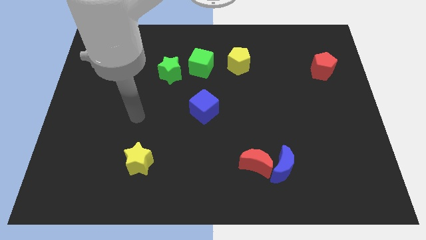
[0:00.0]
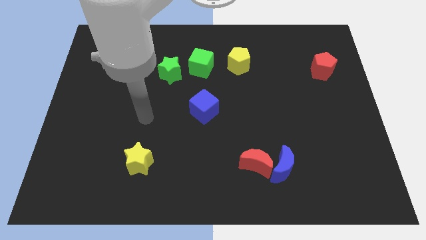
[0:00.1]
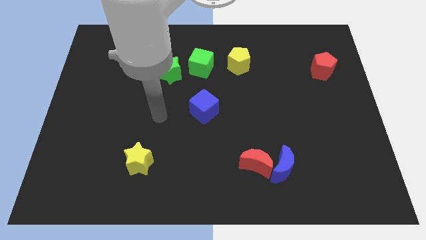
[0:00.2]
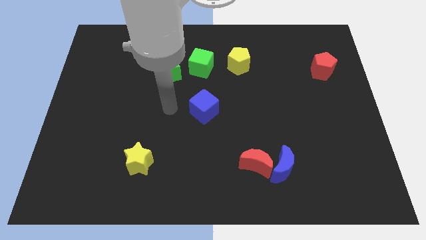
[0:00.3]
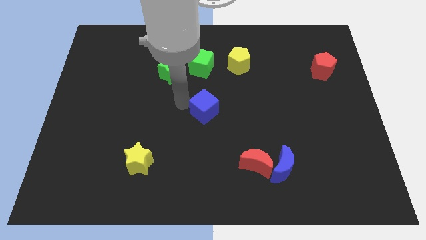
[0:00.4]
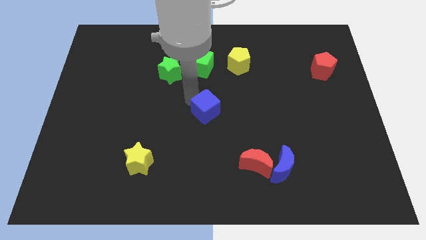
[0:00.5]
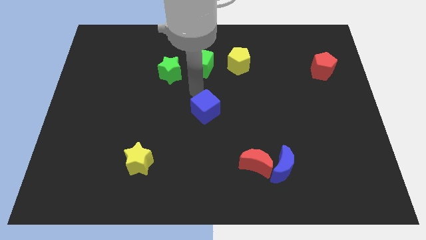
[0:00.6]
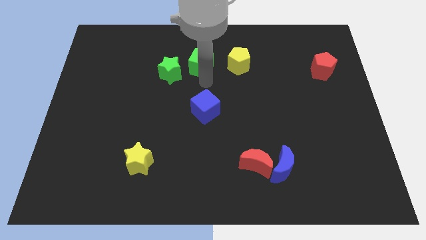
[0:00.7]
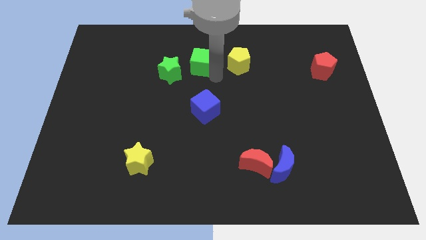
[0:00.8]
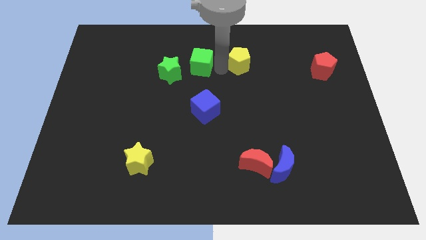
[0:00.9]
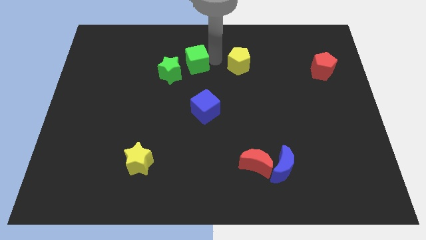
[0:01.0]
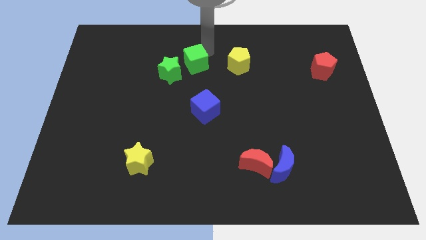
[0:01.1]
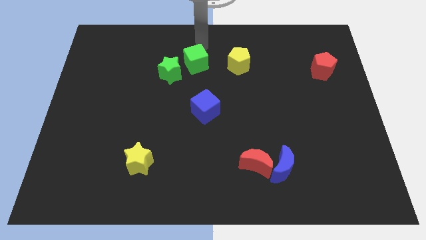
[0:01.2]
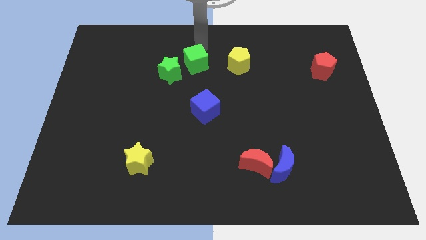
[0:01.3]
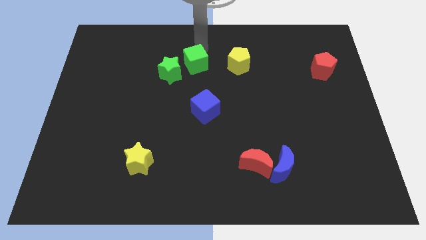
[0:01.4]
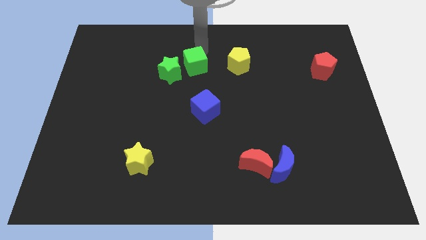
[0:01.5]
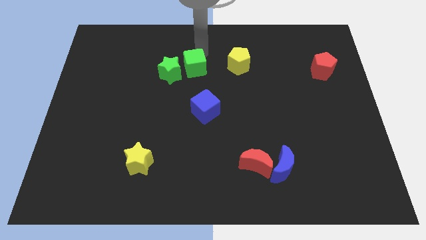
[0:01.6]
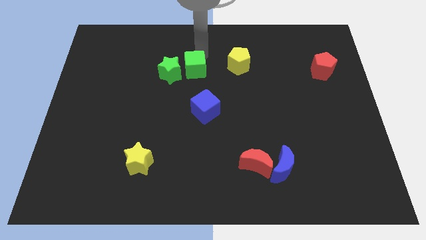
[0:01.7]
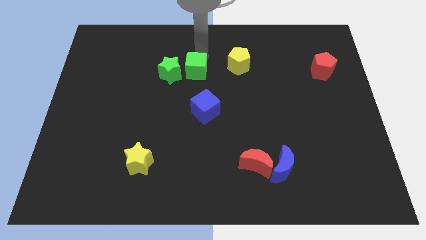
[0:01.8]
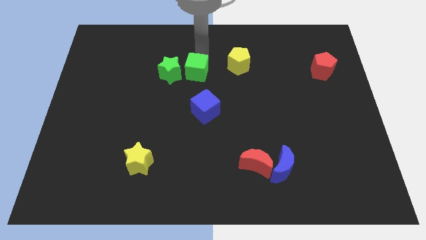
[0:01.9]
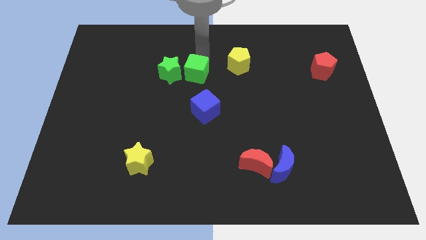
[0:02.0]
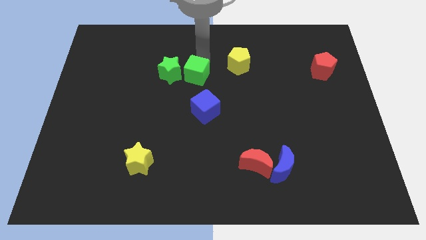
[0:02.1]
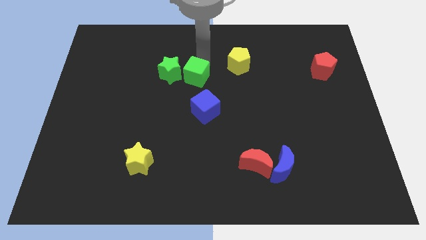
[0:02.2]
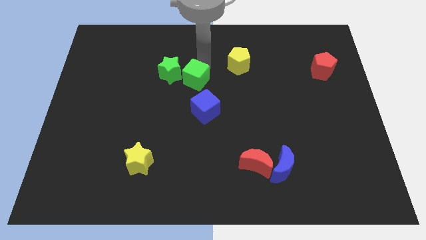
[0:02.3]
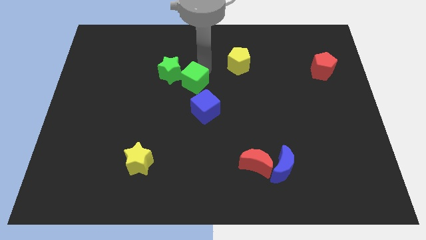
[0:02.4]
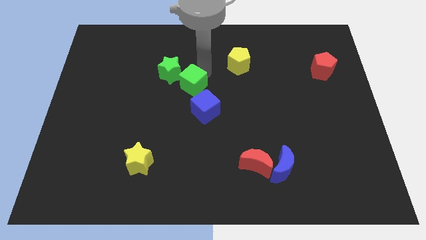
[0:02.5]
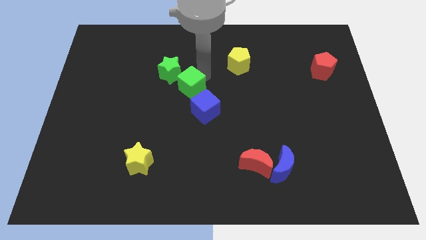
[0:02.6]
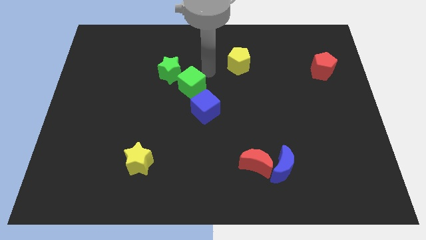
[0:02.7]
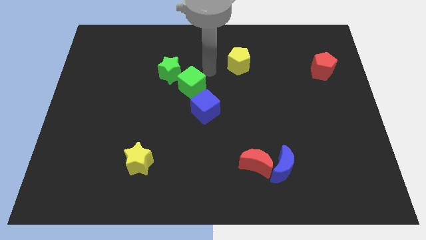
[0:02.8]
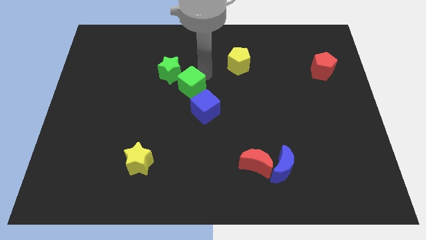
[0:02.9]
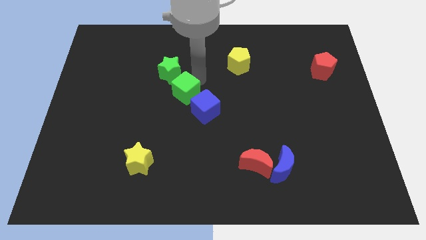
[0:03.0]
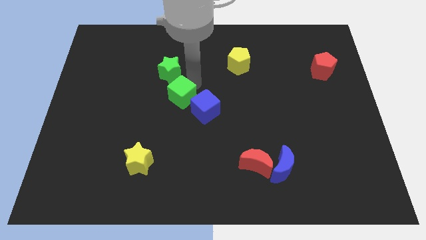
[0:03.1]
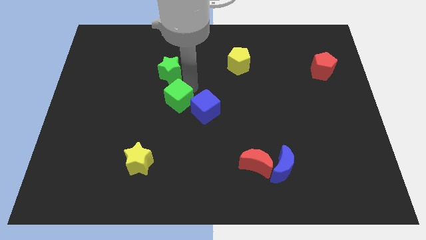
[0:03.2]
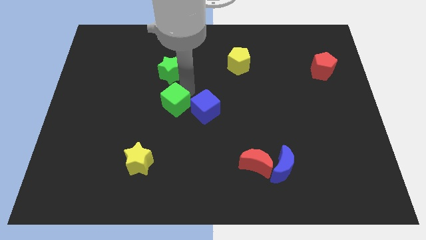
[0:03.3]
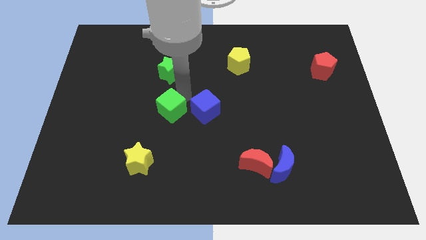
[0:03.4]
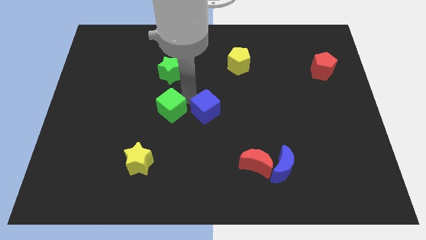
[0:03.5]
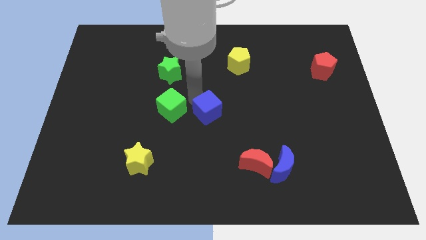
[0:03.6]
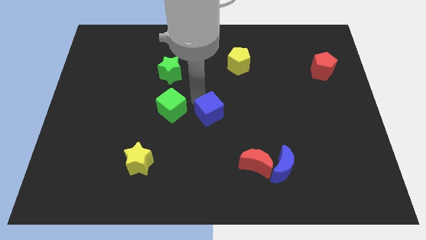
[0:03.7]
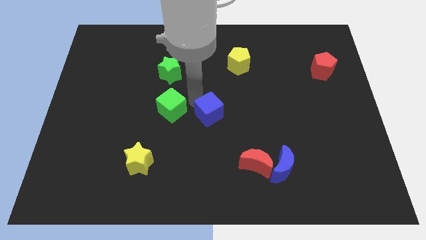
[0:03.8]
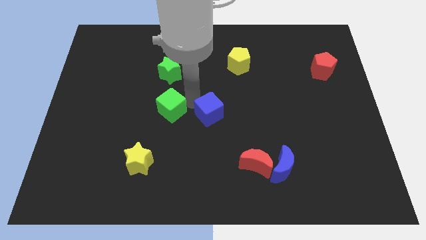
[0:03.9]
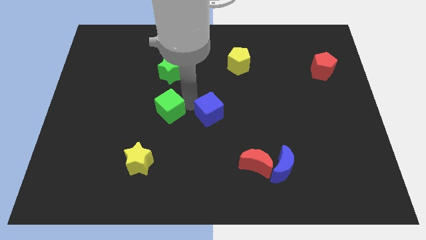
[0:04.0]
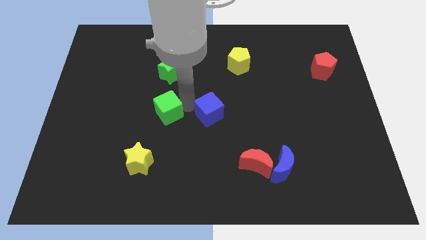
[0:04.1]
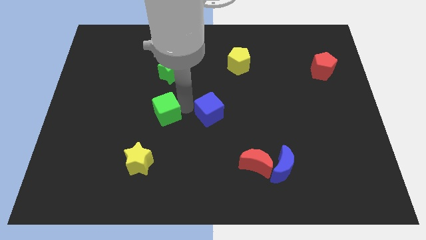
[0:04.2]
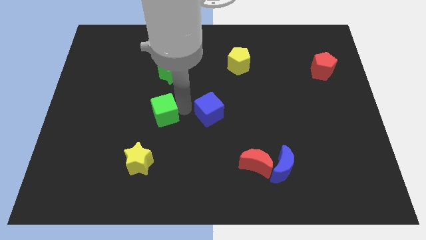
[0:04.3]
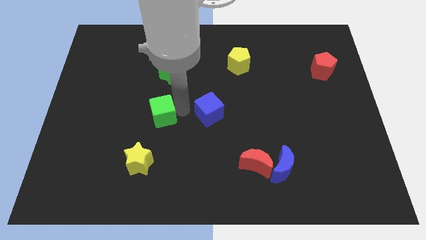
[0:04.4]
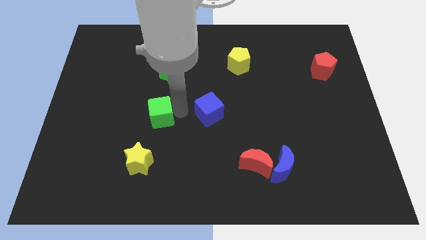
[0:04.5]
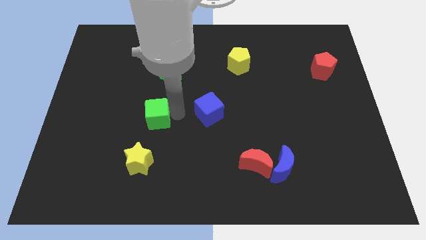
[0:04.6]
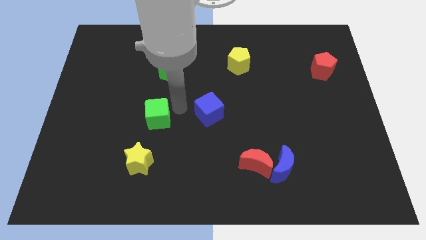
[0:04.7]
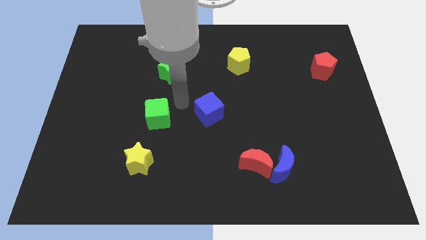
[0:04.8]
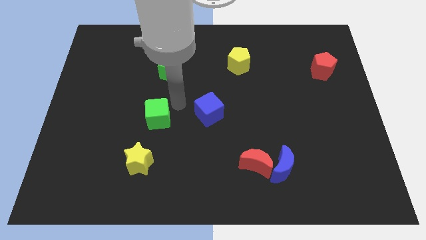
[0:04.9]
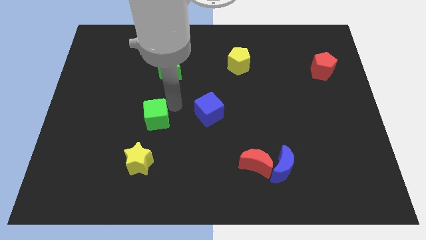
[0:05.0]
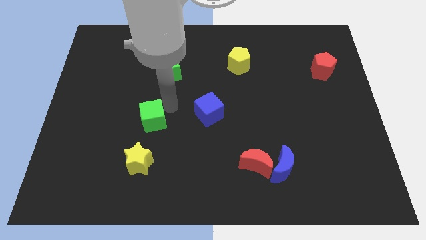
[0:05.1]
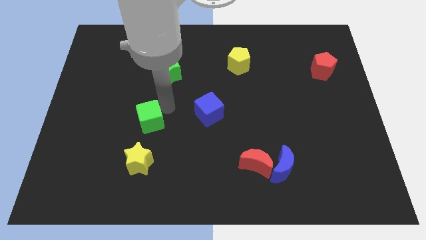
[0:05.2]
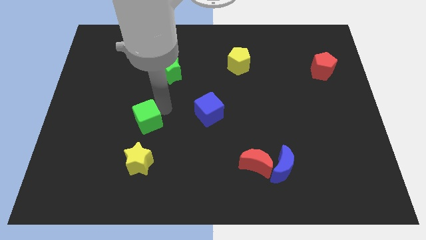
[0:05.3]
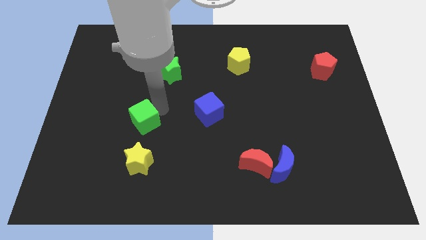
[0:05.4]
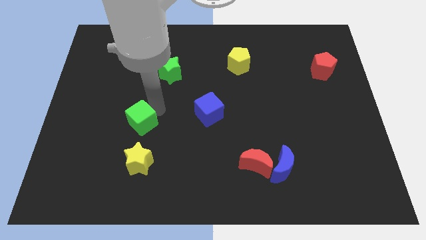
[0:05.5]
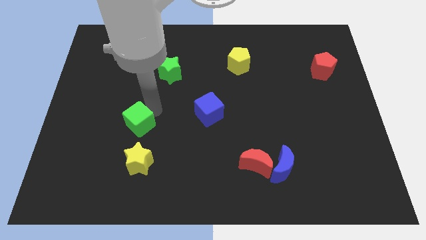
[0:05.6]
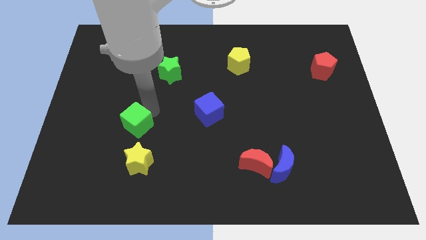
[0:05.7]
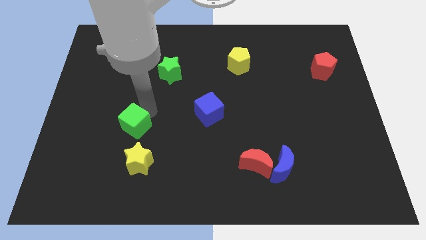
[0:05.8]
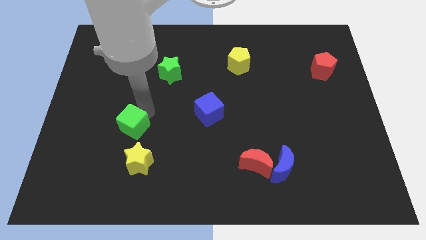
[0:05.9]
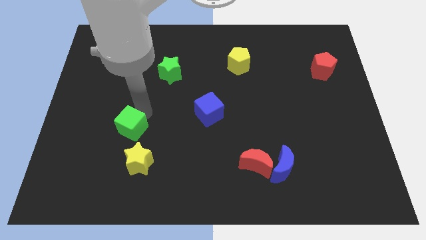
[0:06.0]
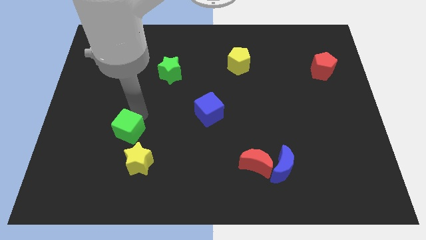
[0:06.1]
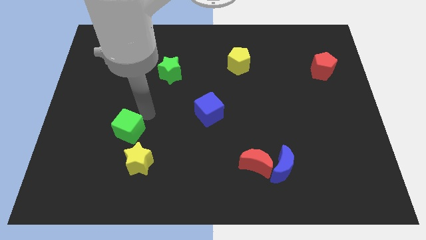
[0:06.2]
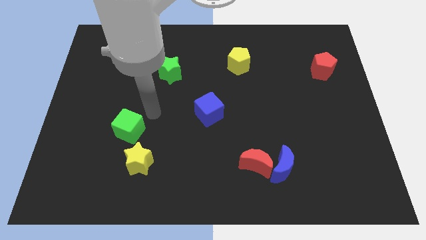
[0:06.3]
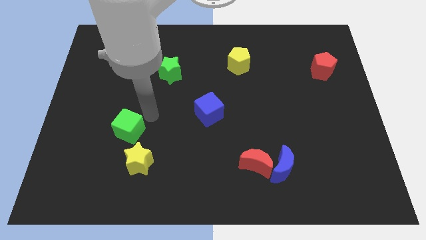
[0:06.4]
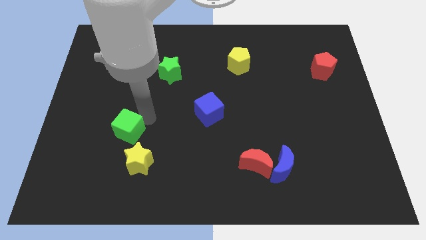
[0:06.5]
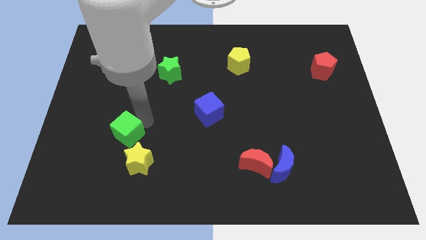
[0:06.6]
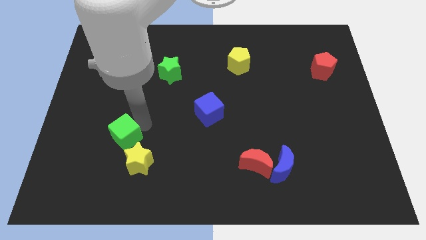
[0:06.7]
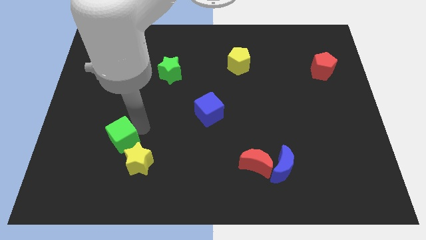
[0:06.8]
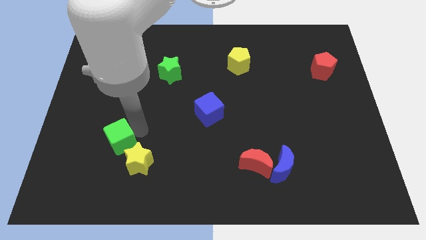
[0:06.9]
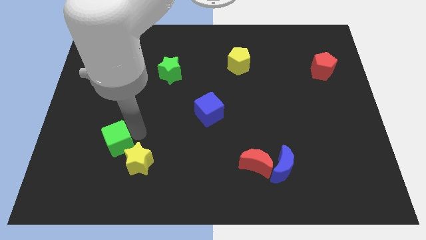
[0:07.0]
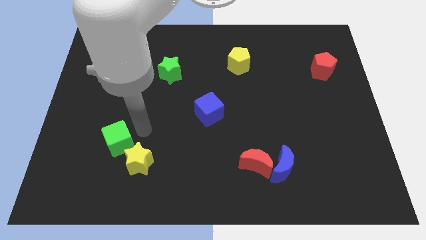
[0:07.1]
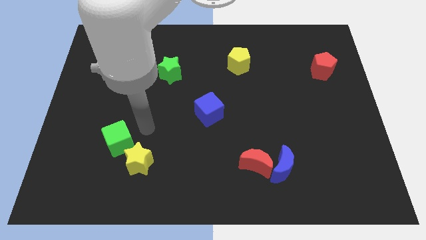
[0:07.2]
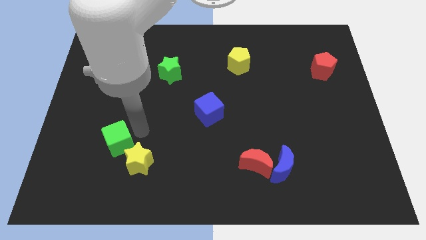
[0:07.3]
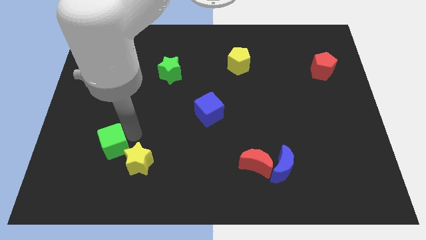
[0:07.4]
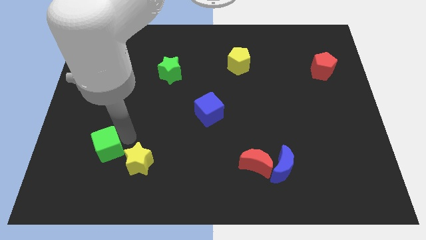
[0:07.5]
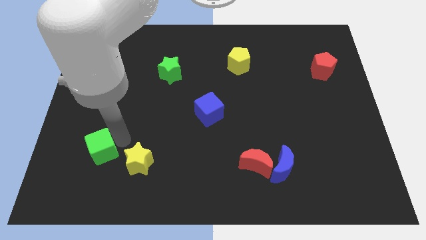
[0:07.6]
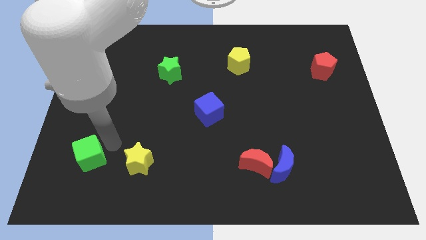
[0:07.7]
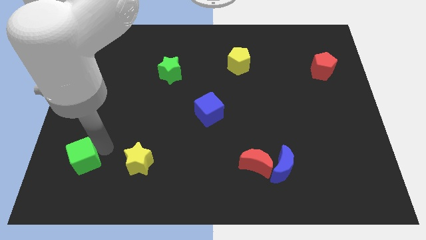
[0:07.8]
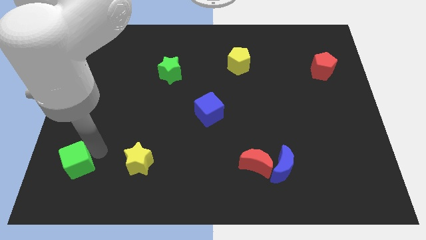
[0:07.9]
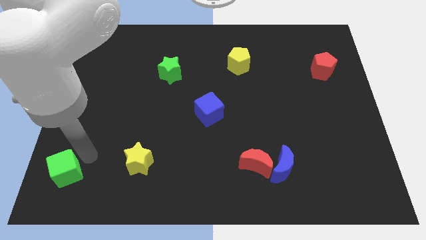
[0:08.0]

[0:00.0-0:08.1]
push the green cube to the lower left corner
